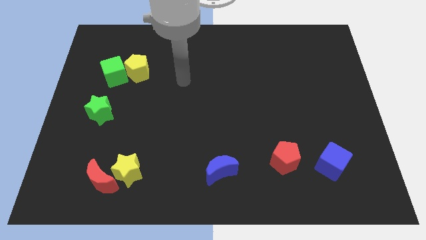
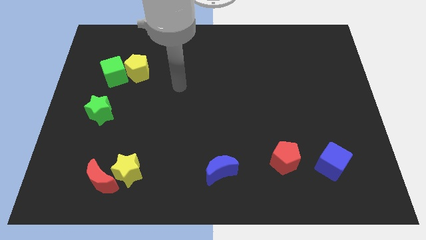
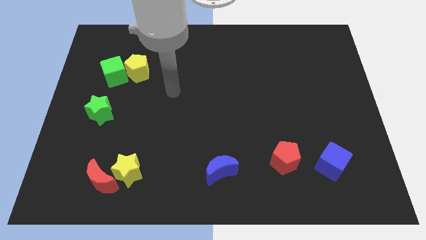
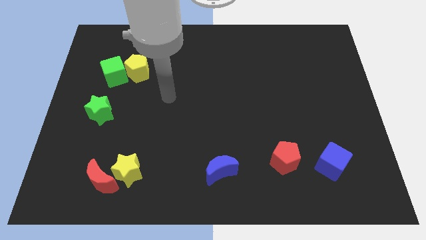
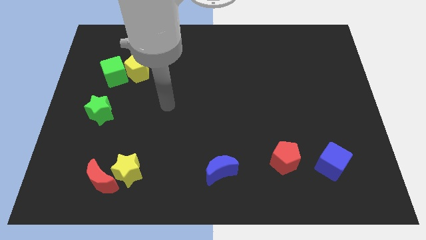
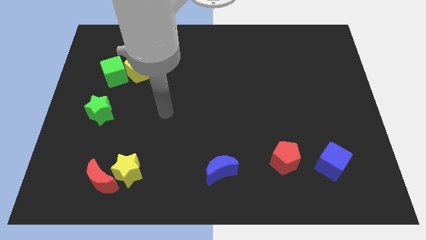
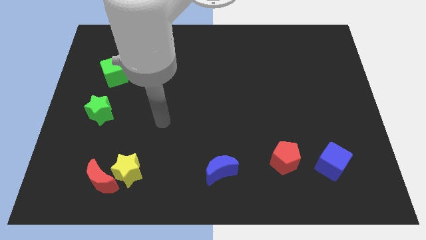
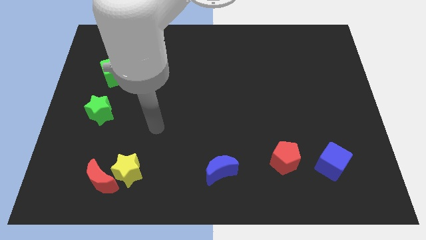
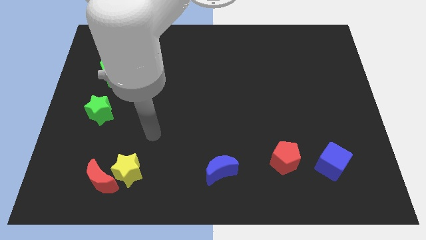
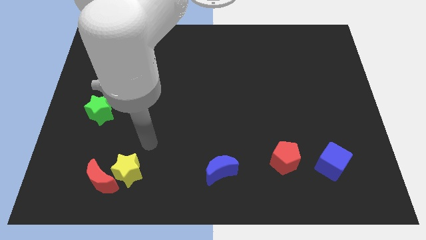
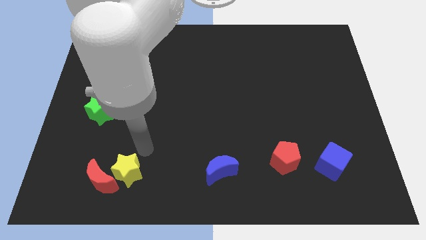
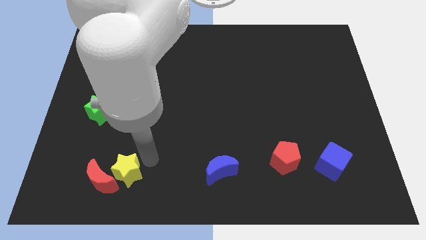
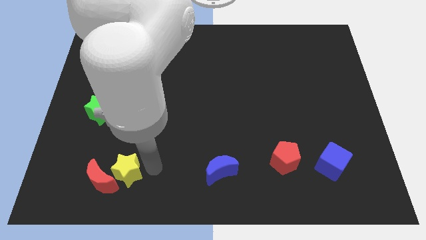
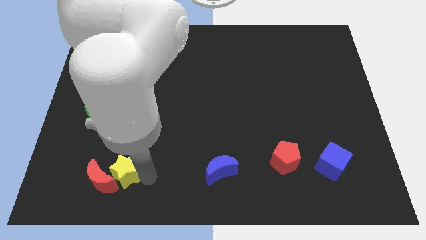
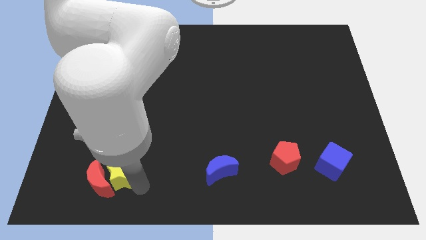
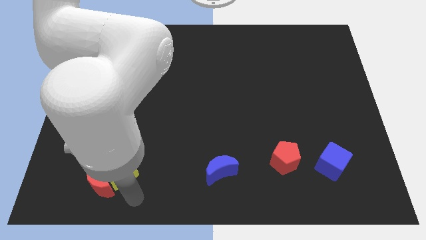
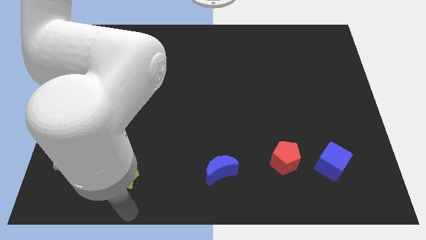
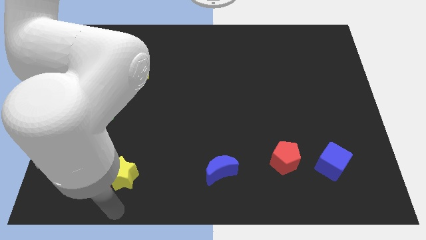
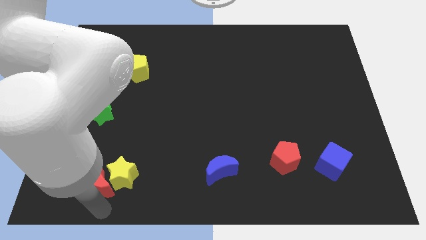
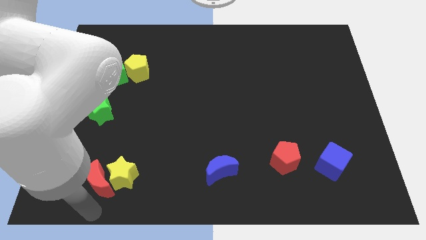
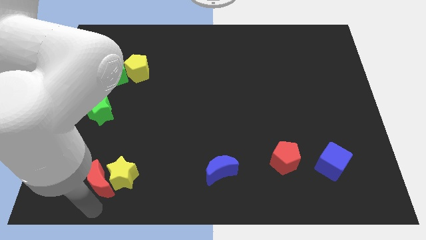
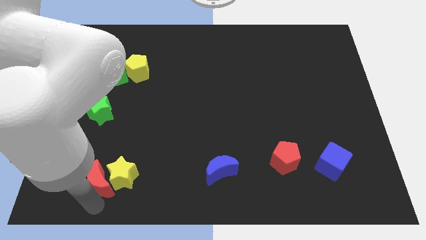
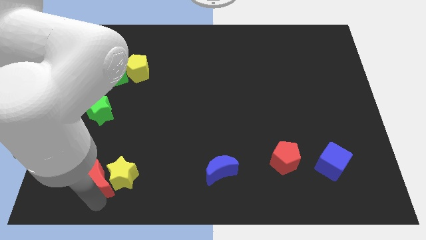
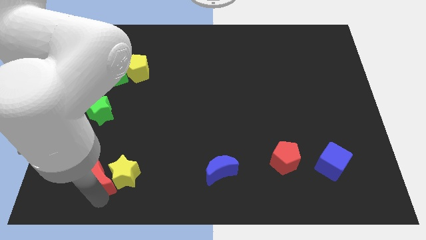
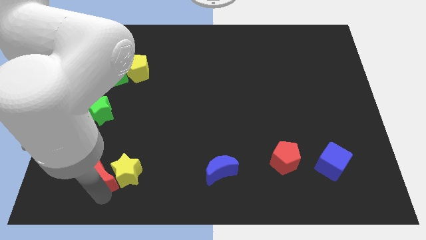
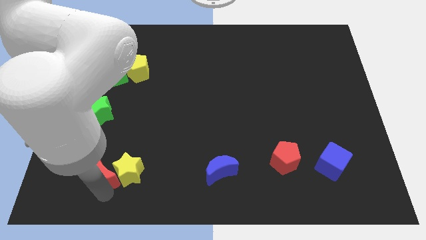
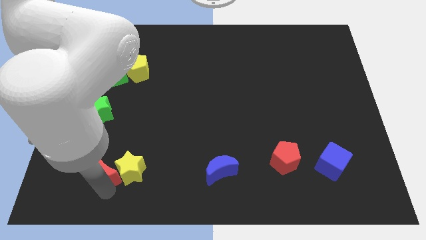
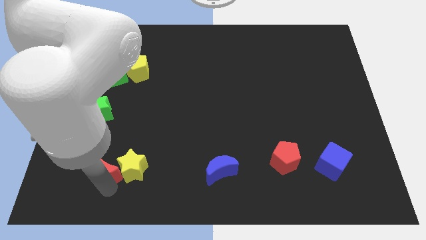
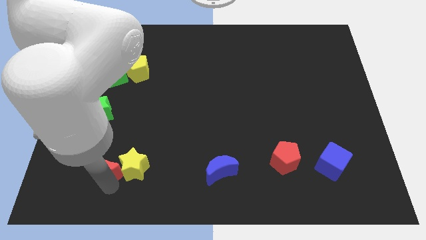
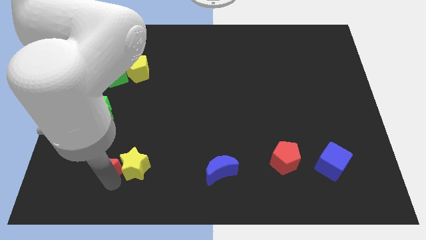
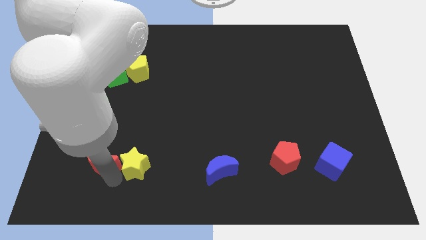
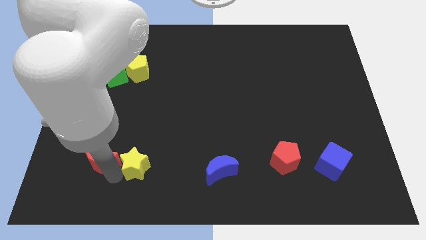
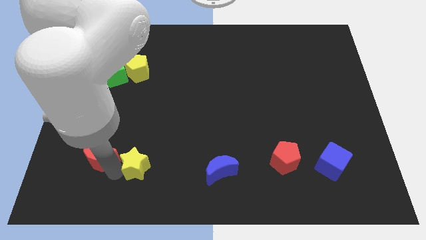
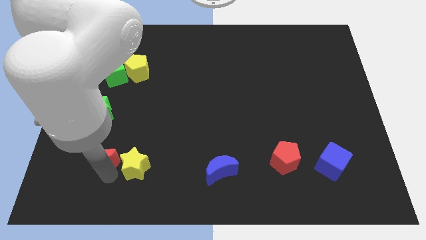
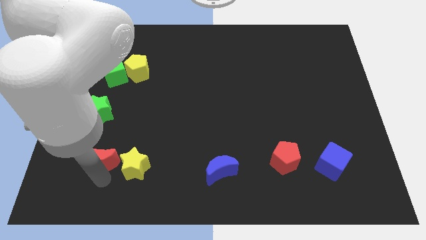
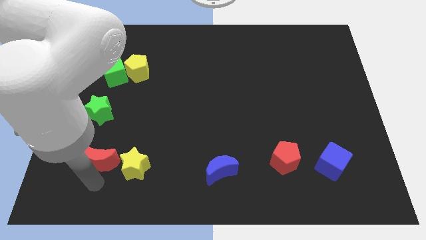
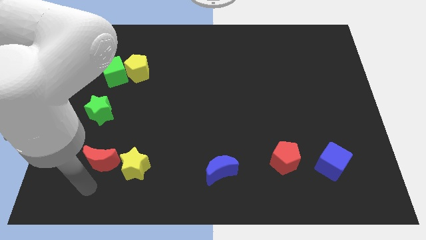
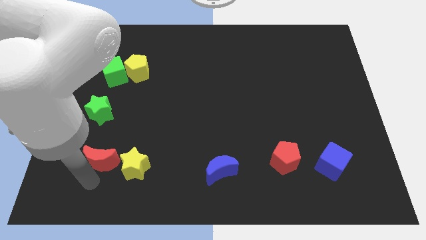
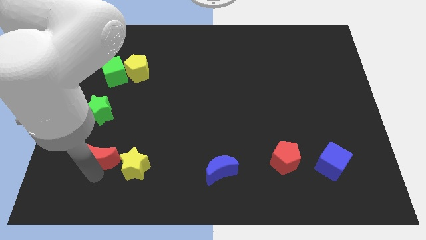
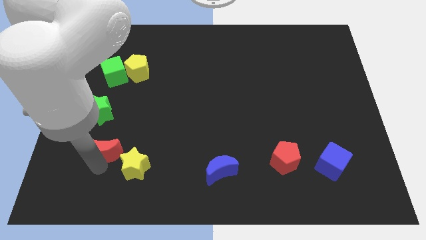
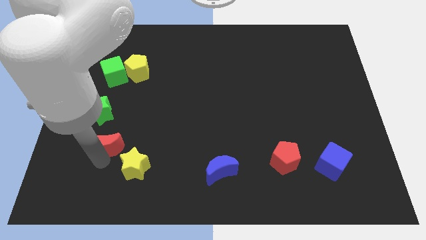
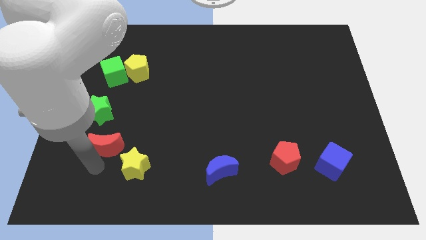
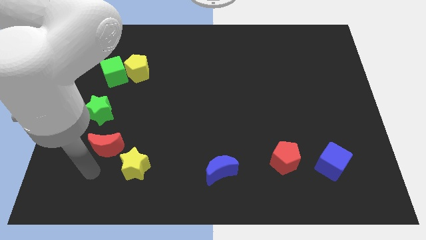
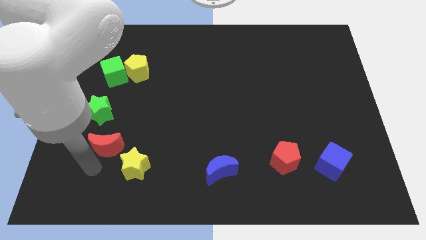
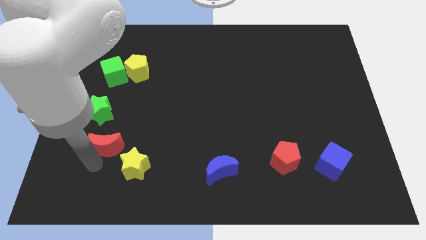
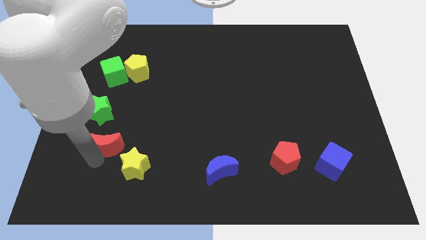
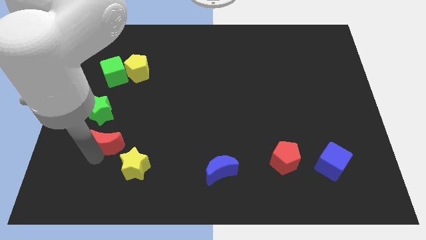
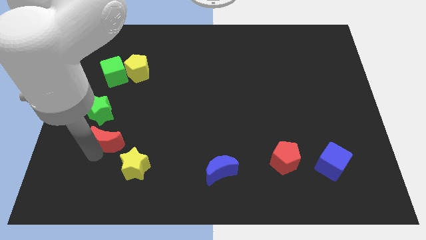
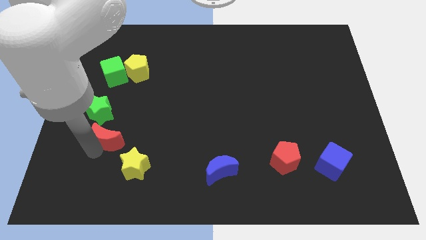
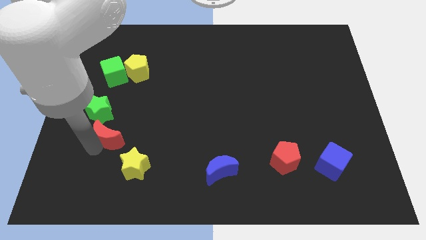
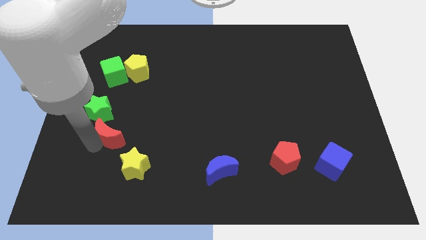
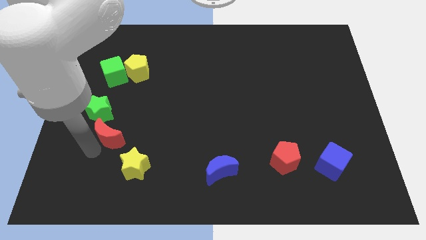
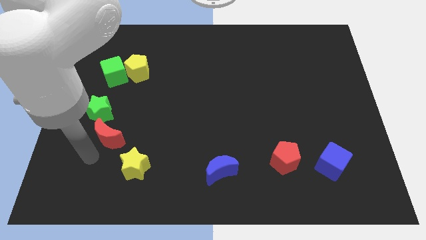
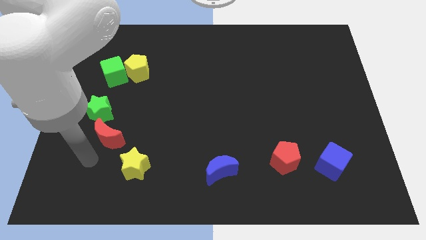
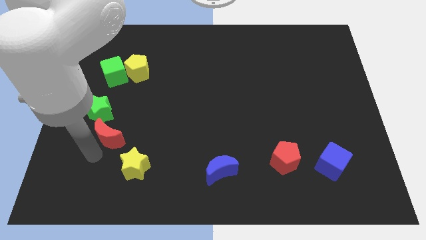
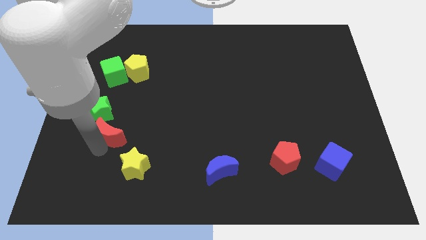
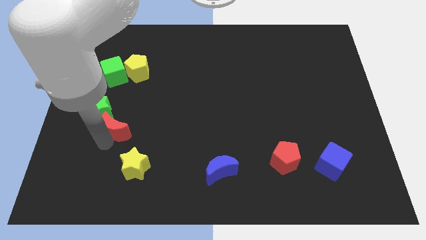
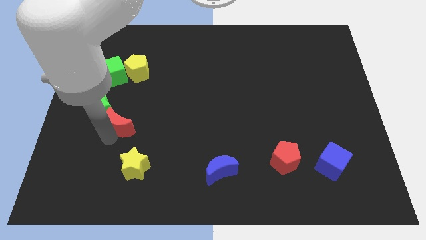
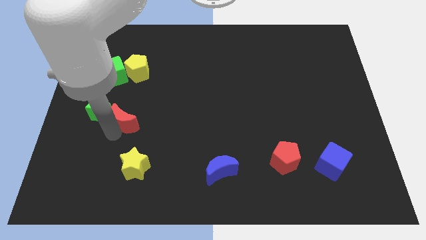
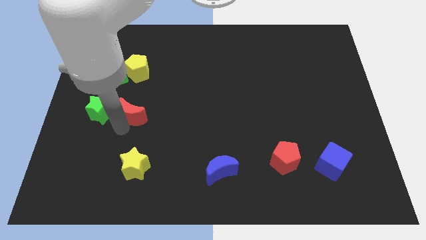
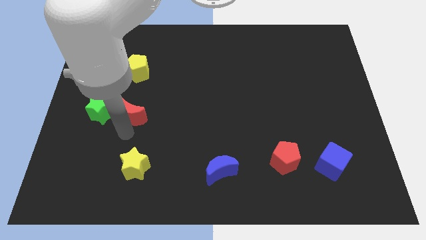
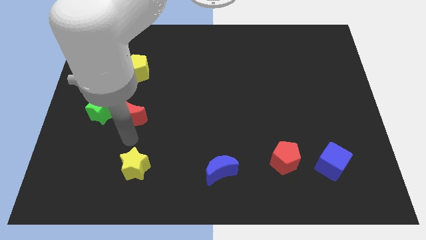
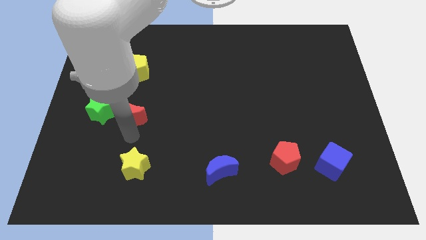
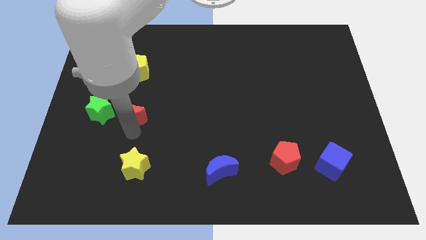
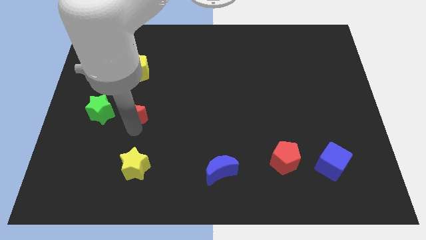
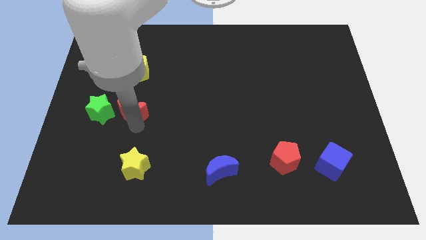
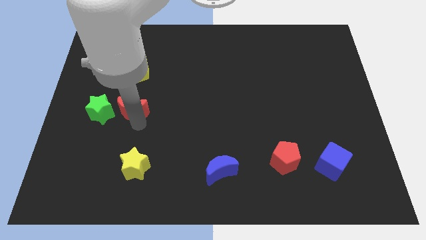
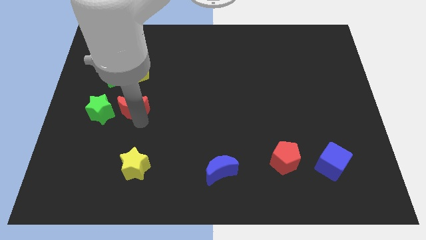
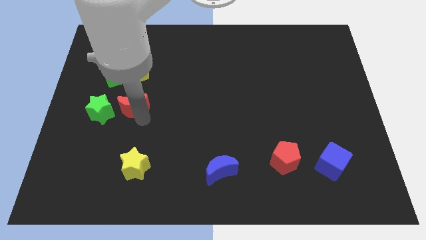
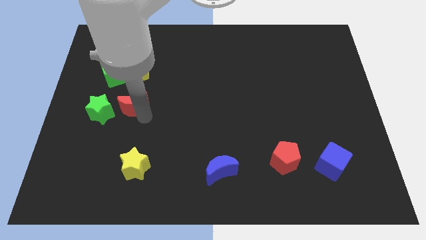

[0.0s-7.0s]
push the red moon diagonally down and to the right of the green cube
